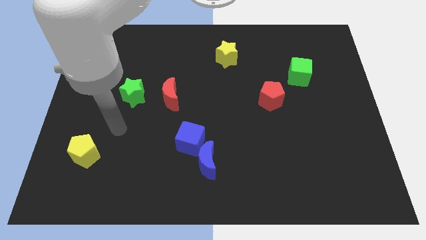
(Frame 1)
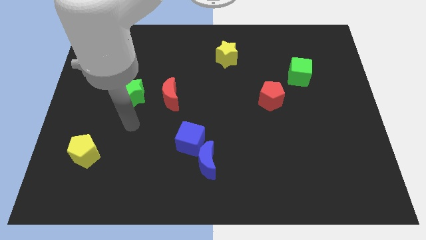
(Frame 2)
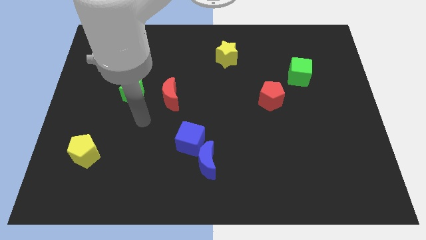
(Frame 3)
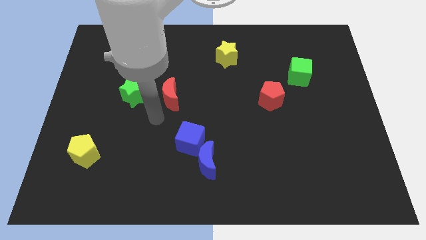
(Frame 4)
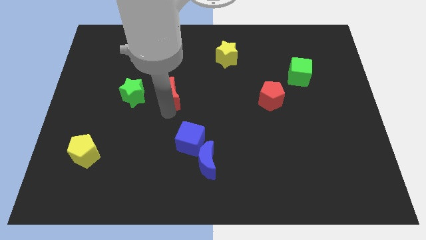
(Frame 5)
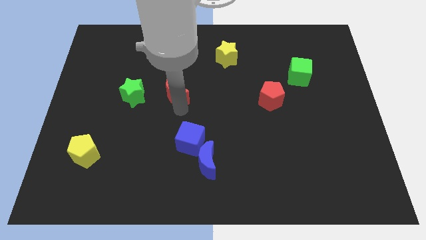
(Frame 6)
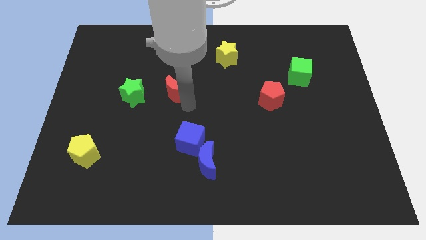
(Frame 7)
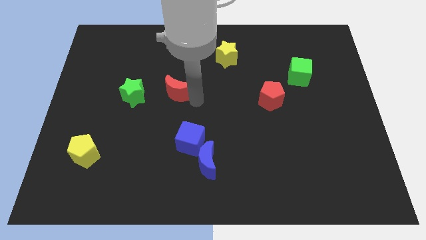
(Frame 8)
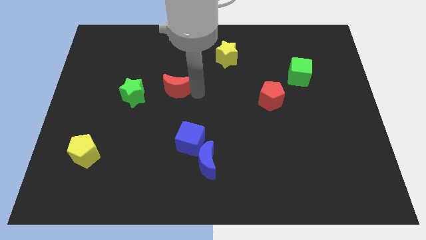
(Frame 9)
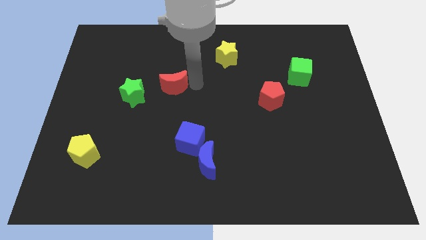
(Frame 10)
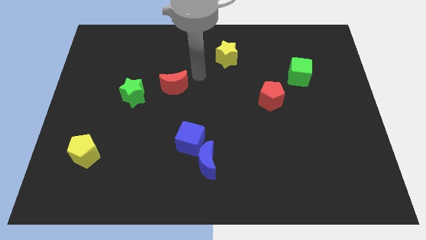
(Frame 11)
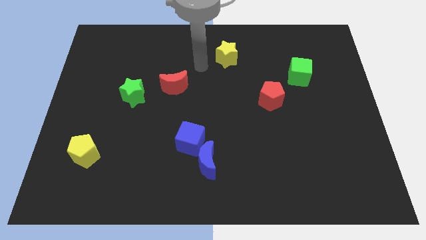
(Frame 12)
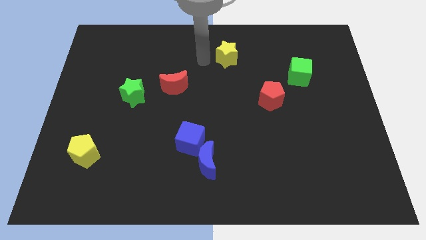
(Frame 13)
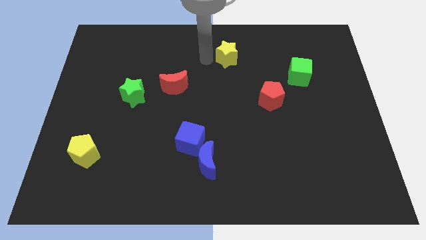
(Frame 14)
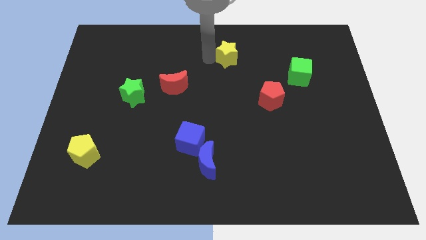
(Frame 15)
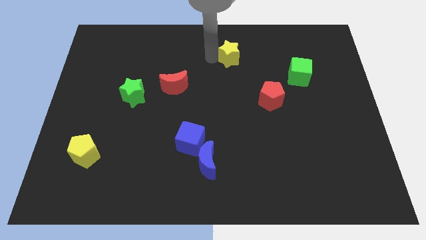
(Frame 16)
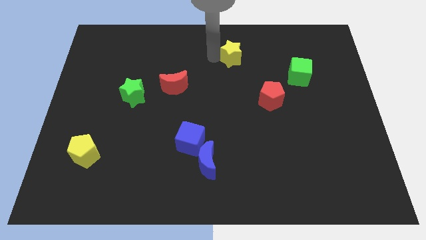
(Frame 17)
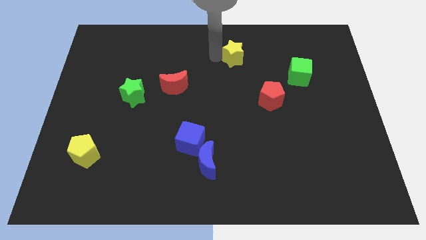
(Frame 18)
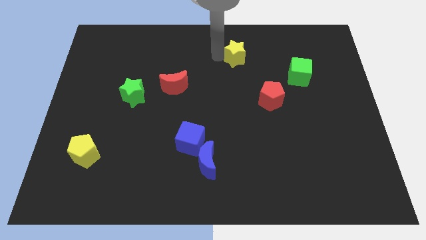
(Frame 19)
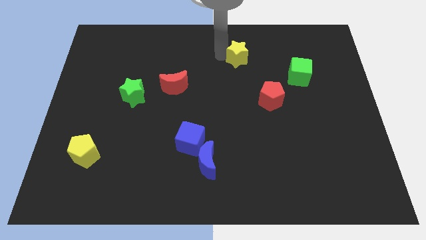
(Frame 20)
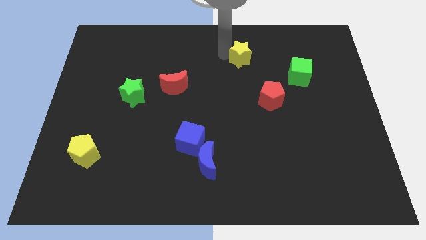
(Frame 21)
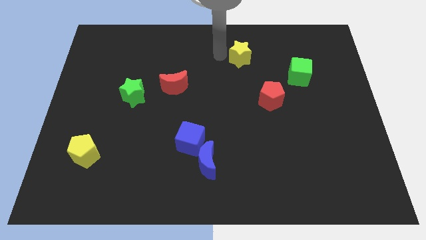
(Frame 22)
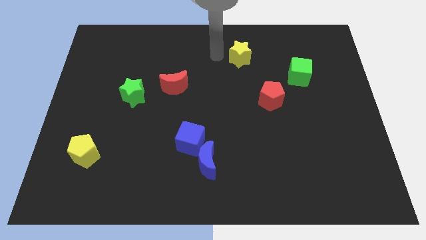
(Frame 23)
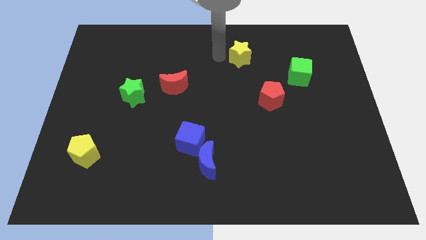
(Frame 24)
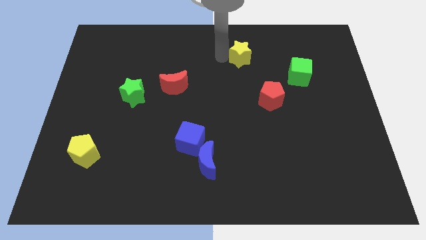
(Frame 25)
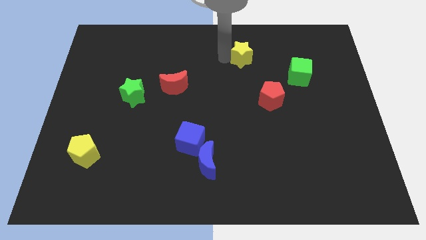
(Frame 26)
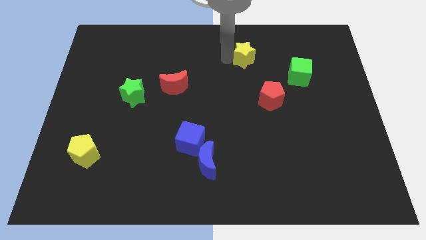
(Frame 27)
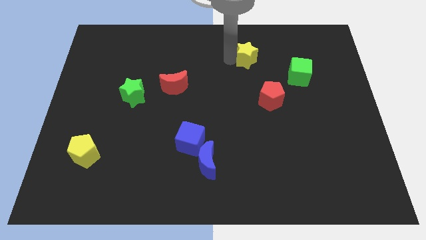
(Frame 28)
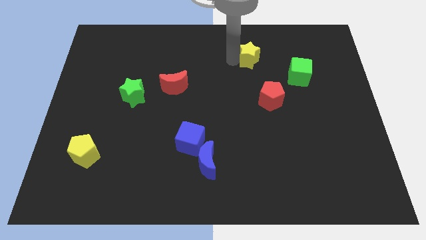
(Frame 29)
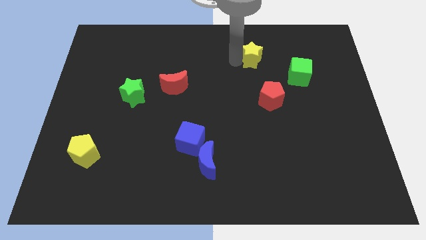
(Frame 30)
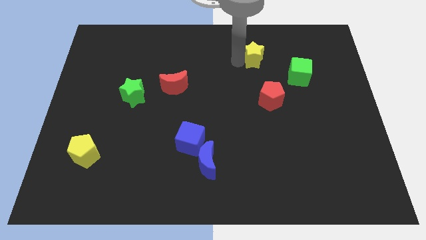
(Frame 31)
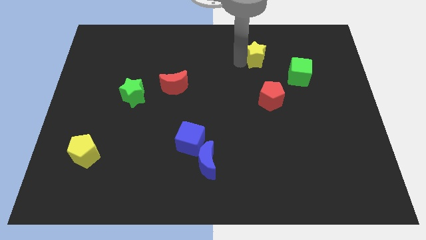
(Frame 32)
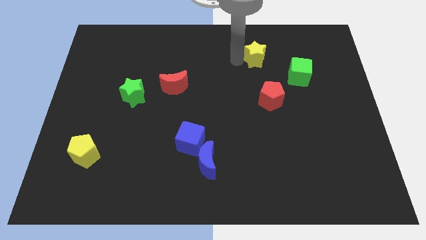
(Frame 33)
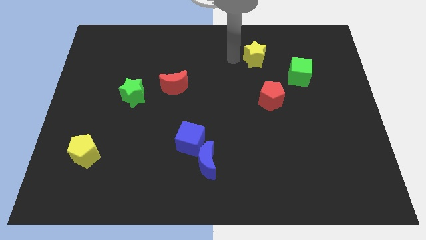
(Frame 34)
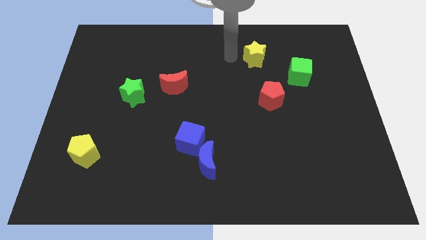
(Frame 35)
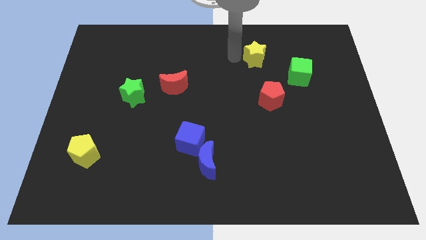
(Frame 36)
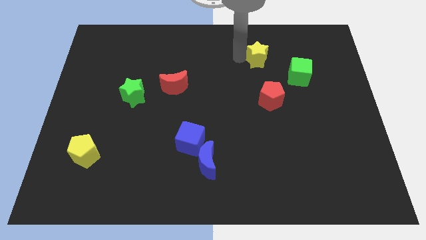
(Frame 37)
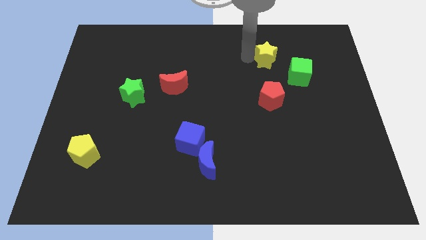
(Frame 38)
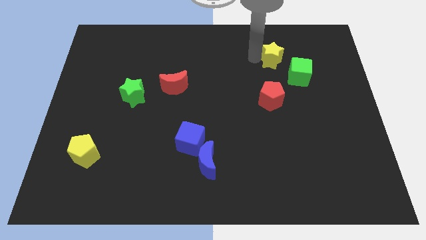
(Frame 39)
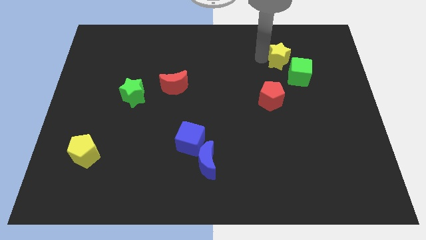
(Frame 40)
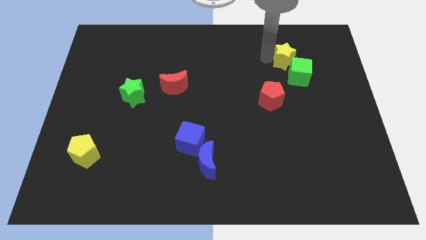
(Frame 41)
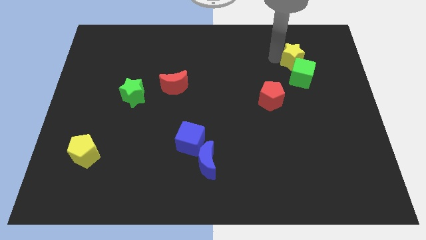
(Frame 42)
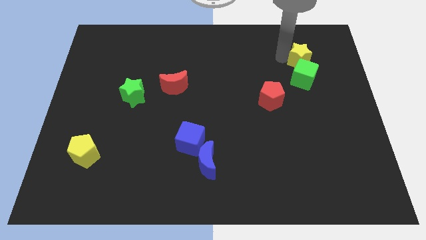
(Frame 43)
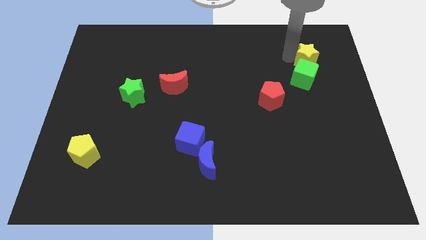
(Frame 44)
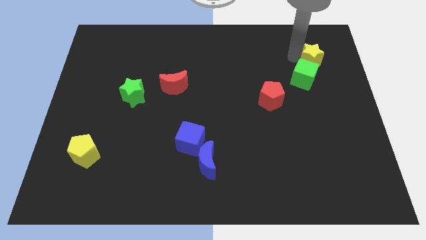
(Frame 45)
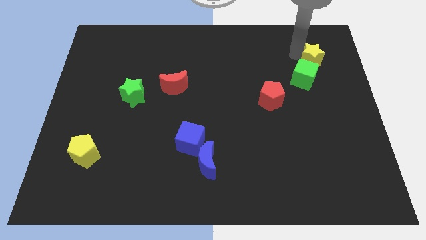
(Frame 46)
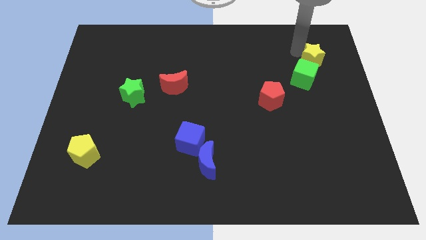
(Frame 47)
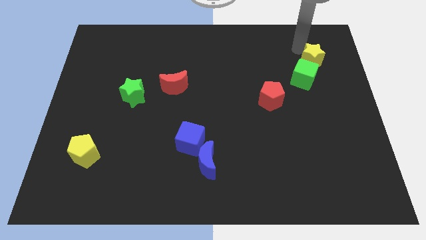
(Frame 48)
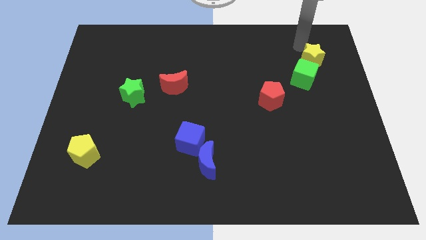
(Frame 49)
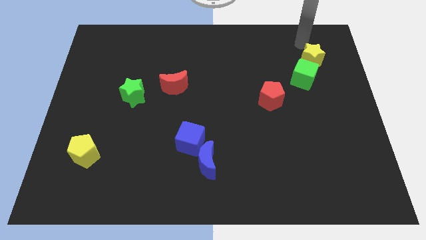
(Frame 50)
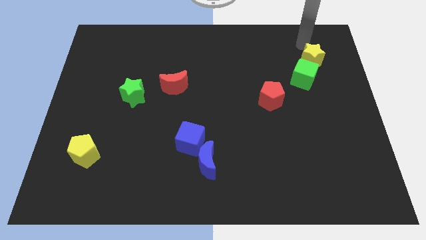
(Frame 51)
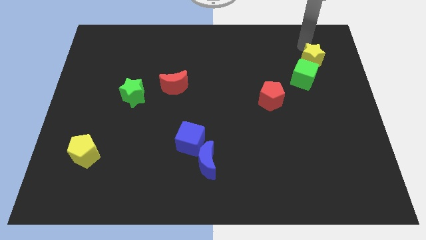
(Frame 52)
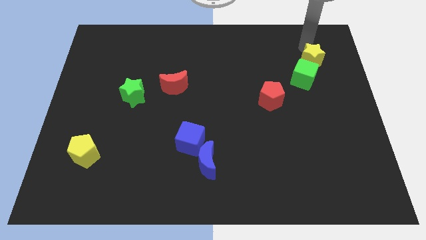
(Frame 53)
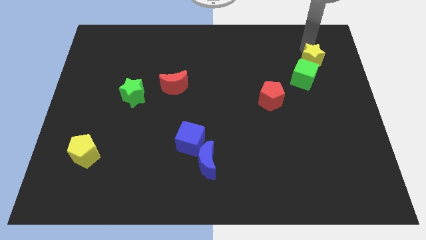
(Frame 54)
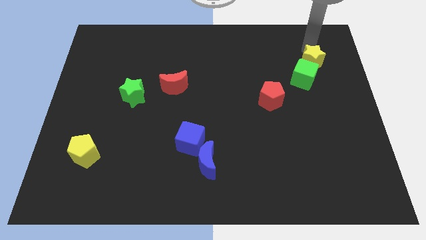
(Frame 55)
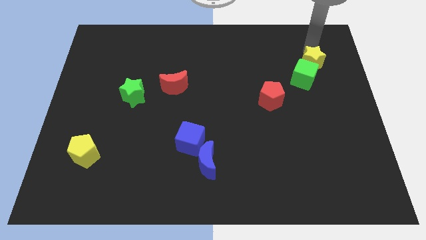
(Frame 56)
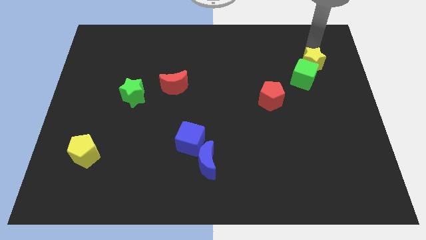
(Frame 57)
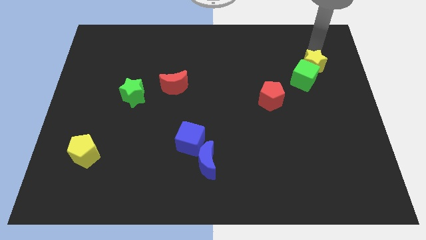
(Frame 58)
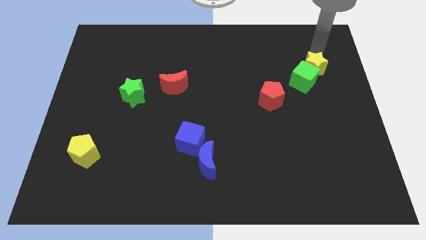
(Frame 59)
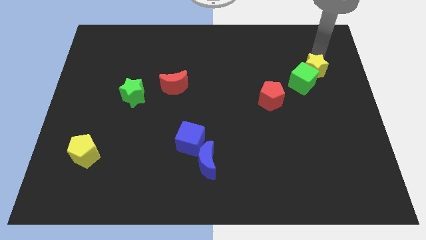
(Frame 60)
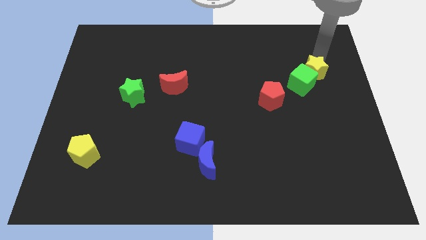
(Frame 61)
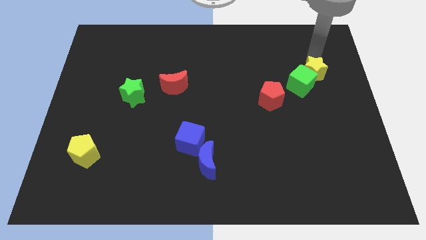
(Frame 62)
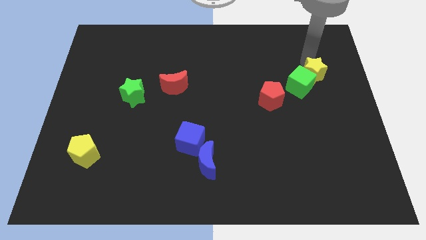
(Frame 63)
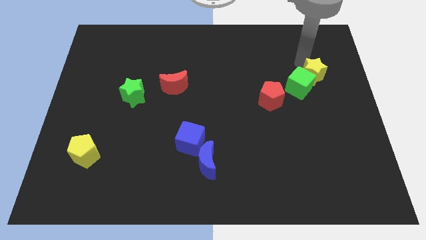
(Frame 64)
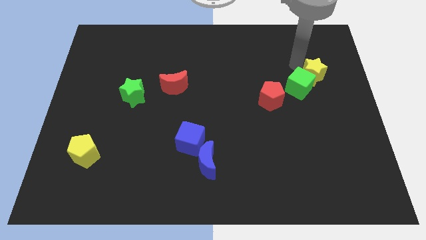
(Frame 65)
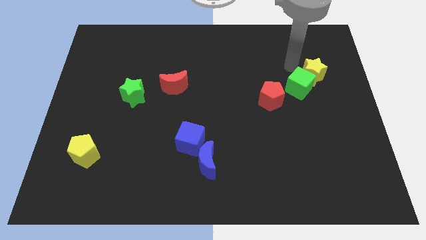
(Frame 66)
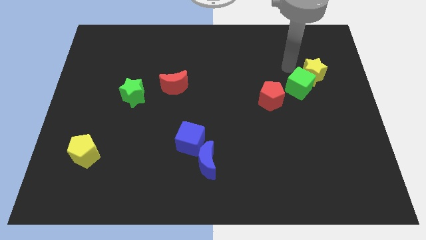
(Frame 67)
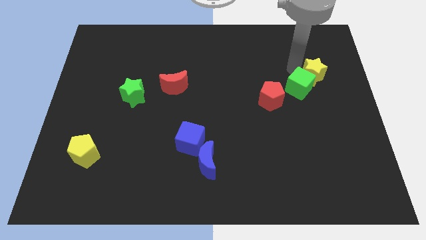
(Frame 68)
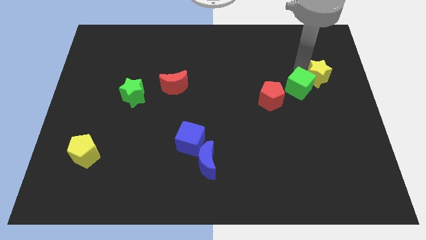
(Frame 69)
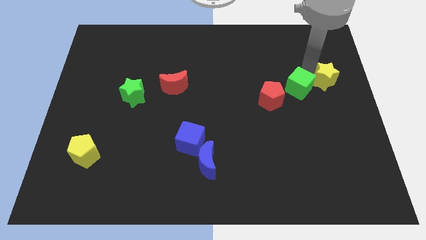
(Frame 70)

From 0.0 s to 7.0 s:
put the yellow star to the right side
